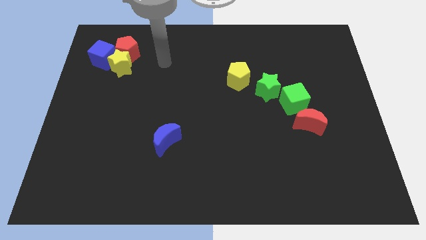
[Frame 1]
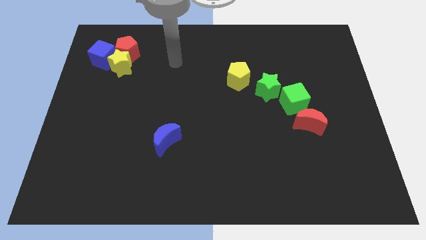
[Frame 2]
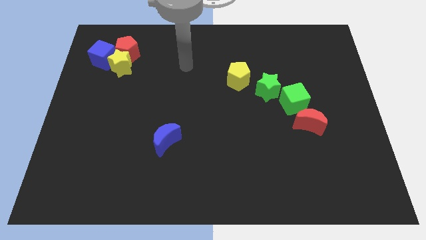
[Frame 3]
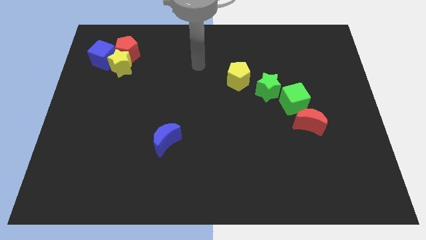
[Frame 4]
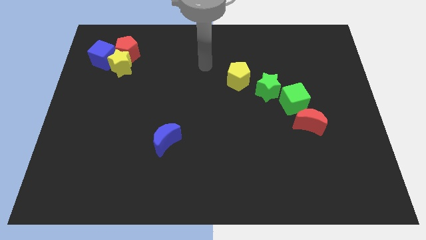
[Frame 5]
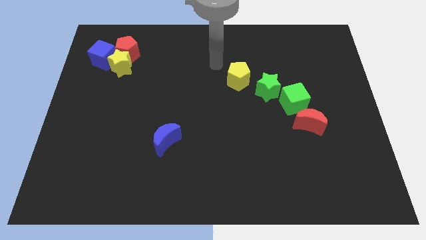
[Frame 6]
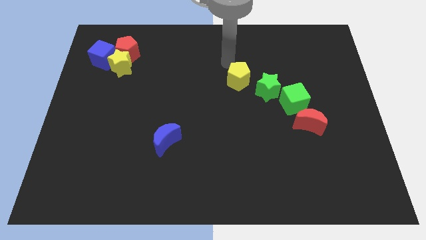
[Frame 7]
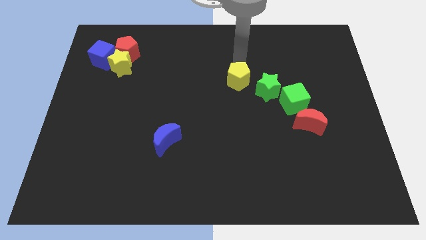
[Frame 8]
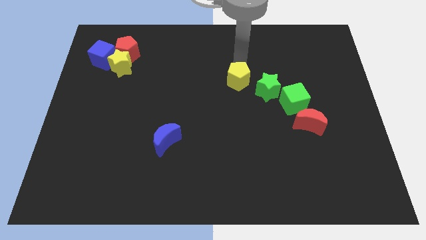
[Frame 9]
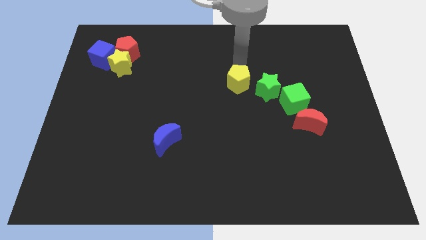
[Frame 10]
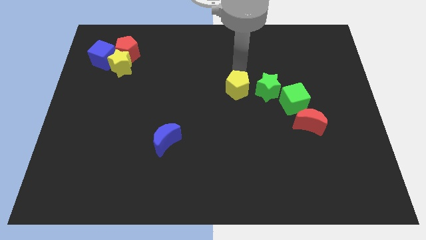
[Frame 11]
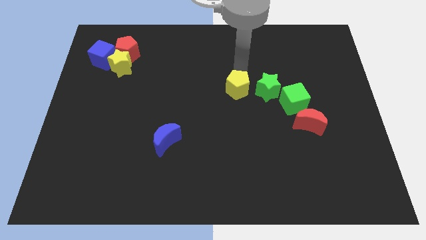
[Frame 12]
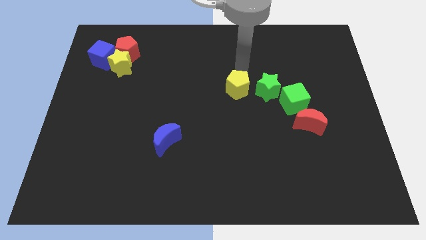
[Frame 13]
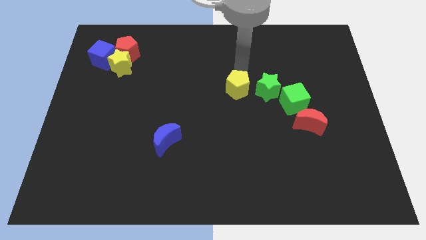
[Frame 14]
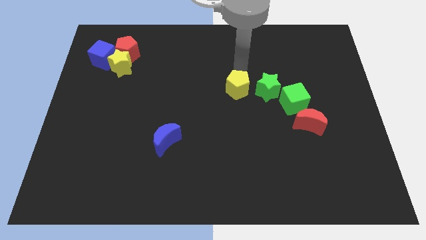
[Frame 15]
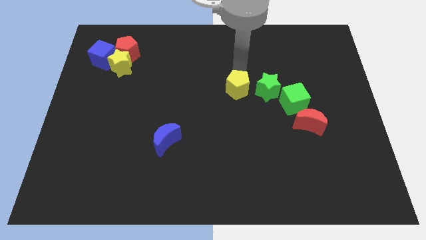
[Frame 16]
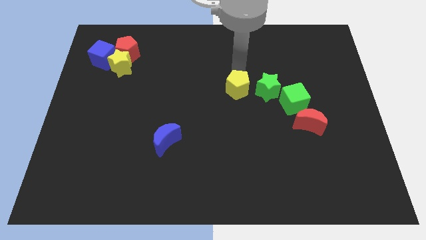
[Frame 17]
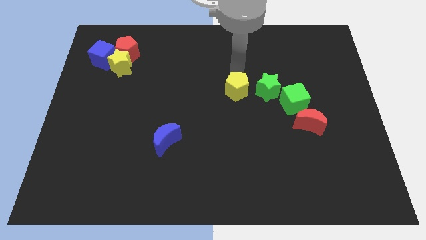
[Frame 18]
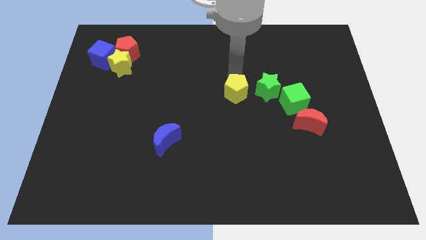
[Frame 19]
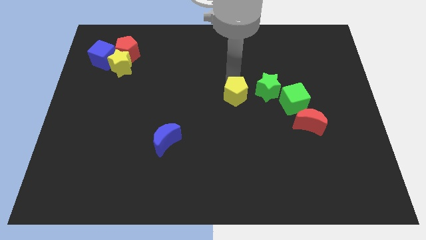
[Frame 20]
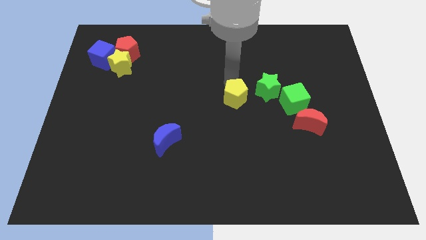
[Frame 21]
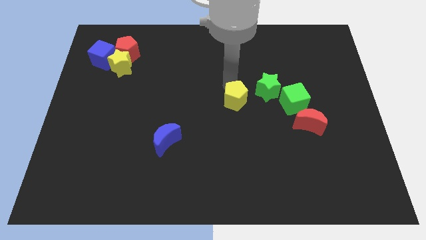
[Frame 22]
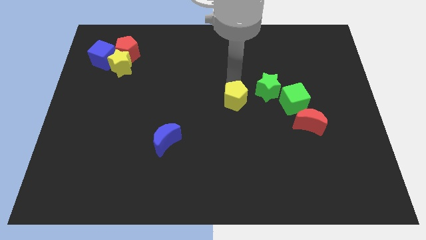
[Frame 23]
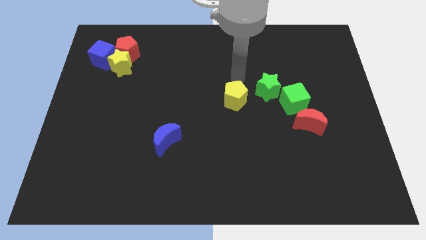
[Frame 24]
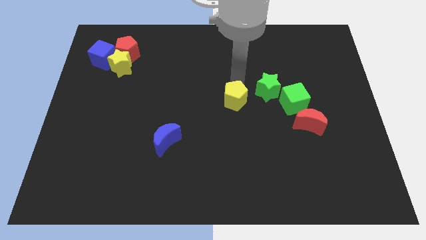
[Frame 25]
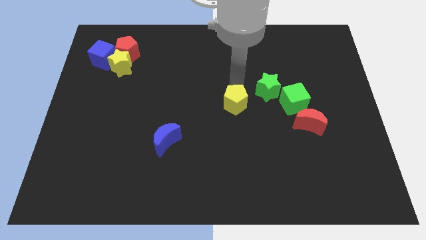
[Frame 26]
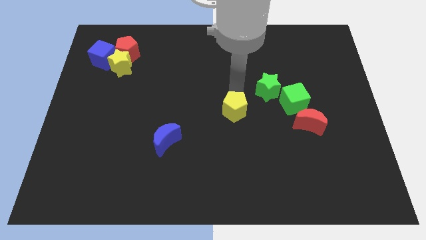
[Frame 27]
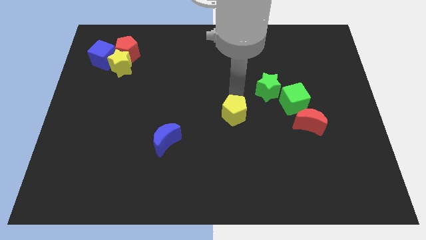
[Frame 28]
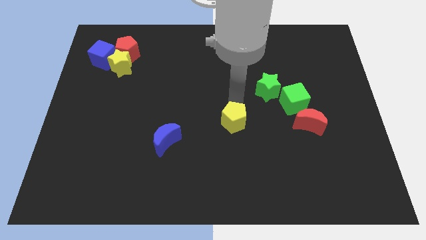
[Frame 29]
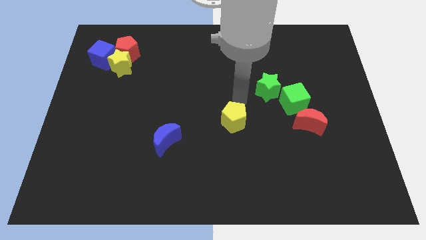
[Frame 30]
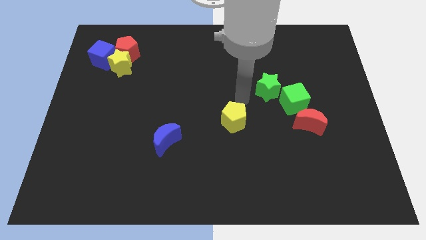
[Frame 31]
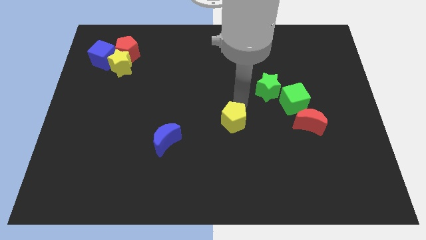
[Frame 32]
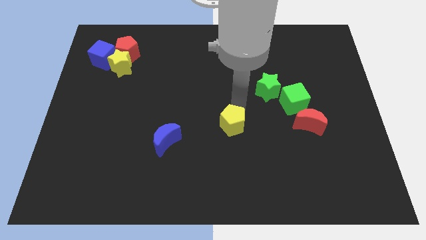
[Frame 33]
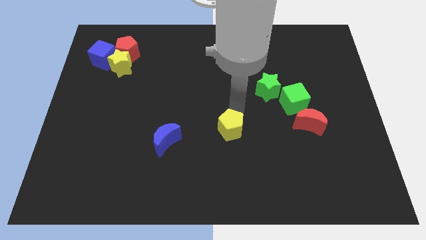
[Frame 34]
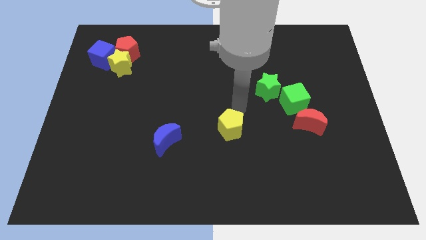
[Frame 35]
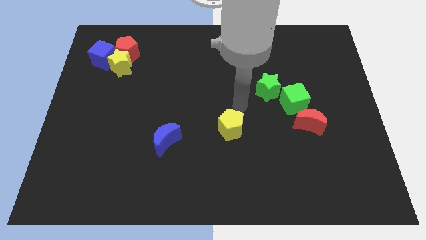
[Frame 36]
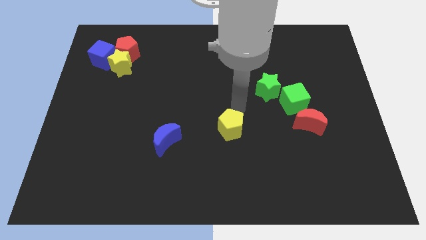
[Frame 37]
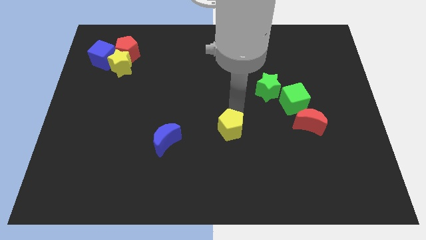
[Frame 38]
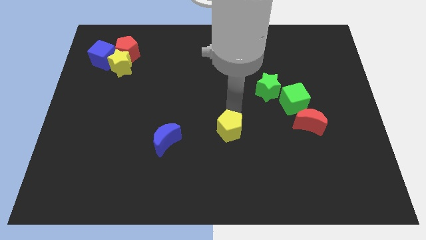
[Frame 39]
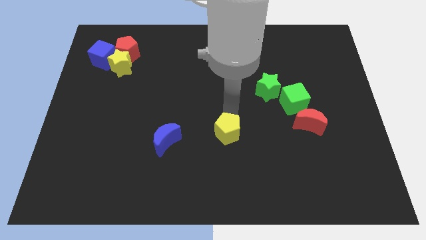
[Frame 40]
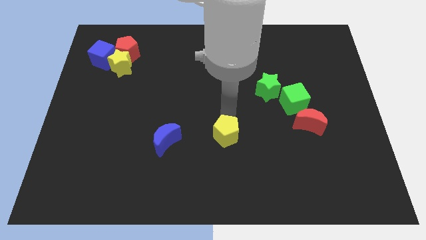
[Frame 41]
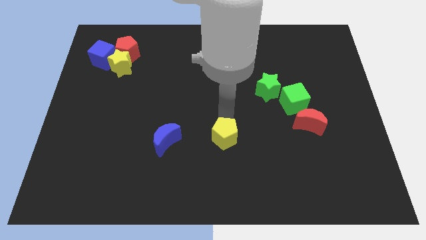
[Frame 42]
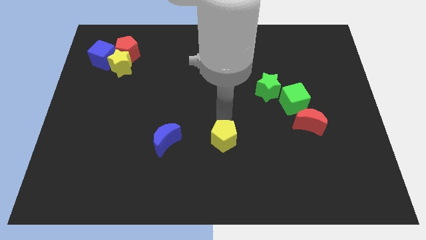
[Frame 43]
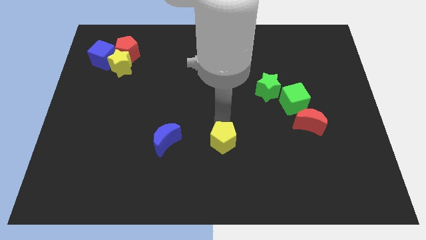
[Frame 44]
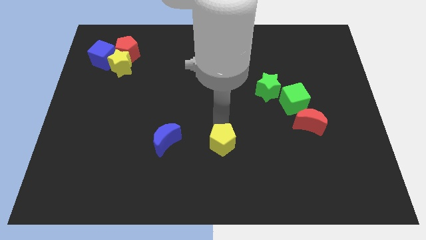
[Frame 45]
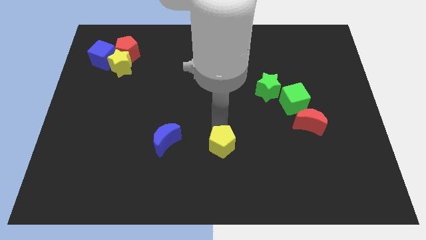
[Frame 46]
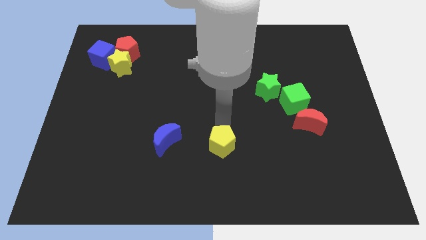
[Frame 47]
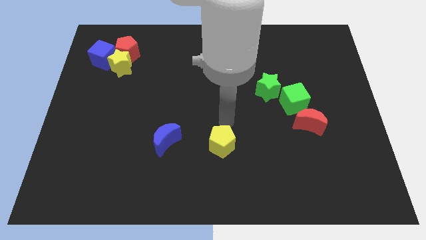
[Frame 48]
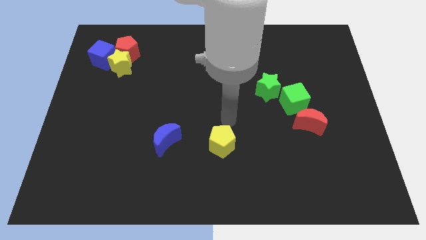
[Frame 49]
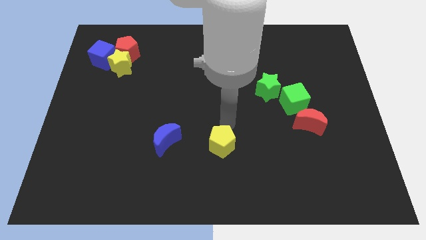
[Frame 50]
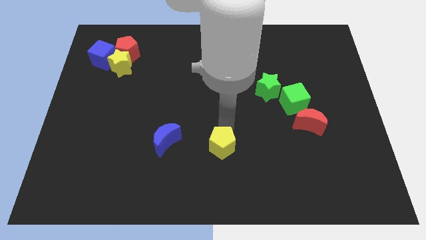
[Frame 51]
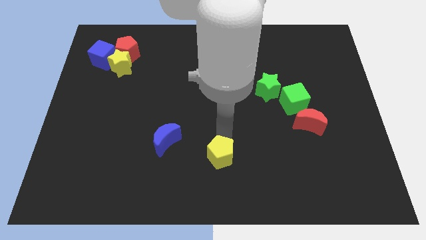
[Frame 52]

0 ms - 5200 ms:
push the yellow pentagon to the bottom side

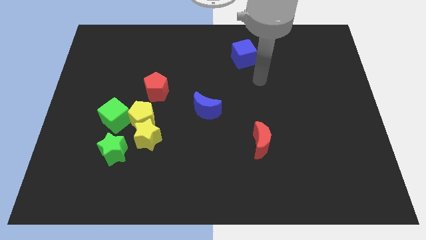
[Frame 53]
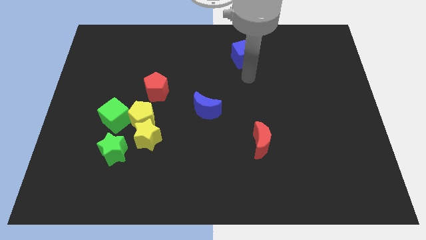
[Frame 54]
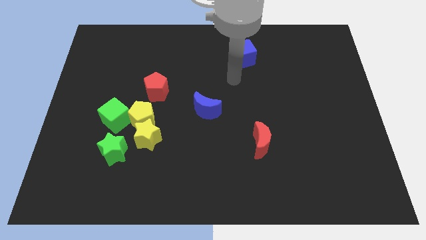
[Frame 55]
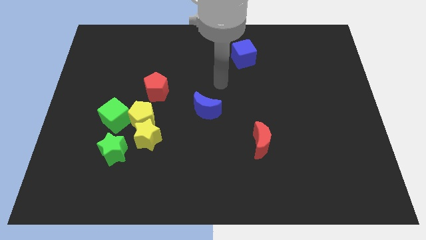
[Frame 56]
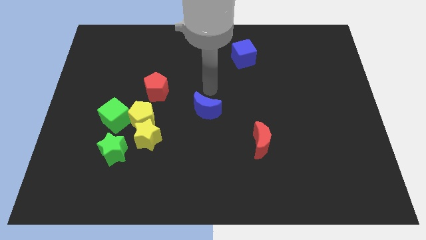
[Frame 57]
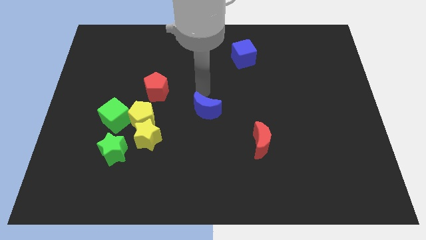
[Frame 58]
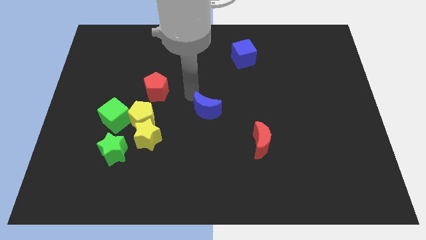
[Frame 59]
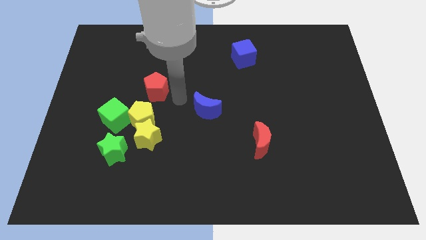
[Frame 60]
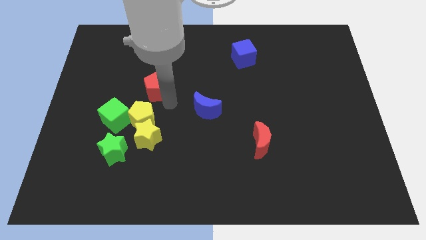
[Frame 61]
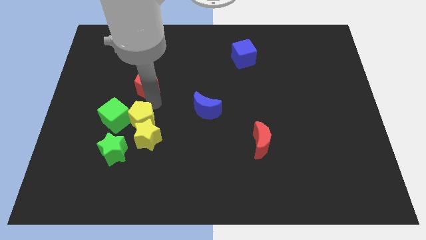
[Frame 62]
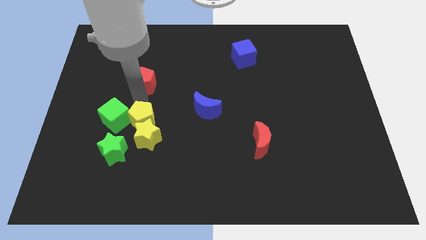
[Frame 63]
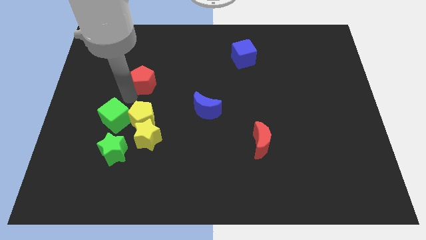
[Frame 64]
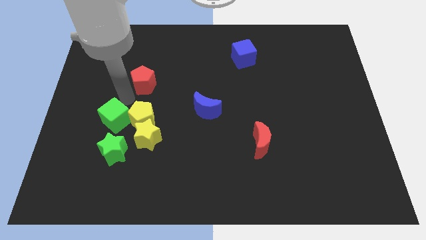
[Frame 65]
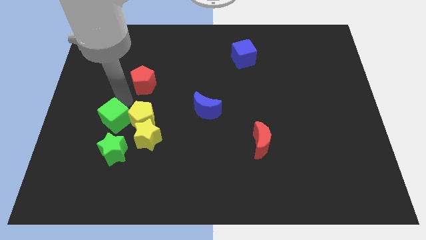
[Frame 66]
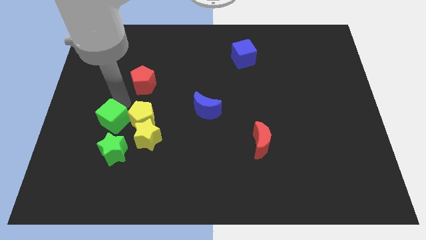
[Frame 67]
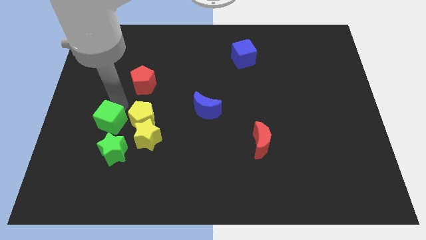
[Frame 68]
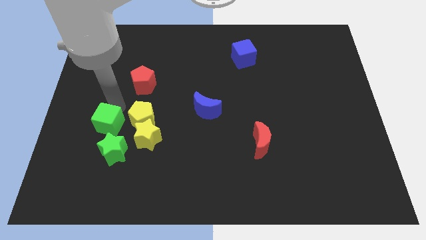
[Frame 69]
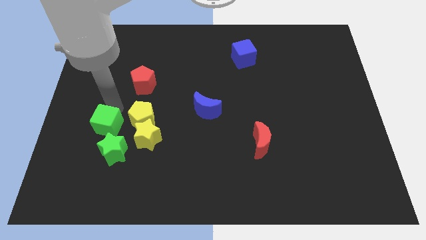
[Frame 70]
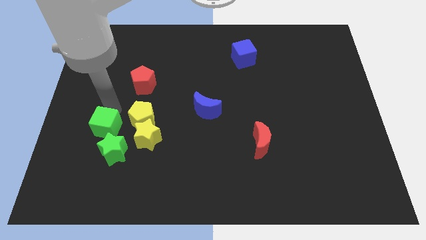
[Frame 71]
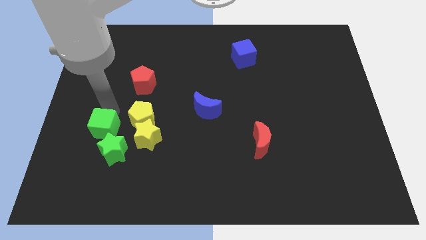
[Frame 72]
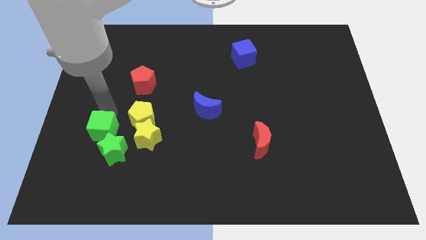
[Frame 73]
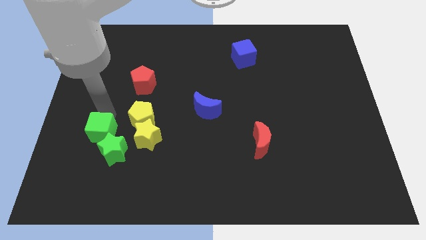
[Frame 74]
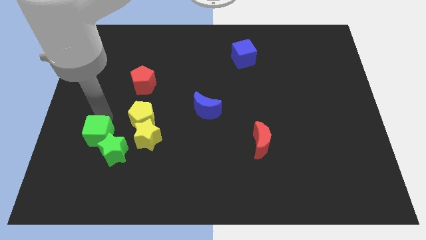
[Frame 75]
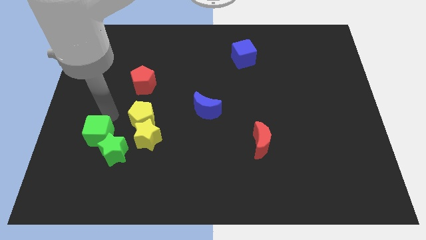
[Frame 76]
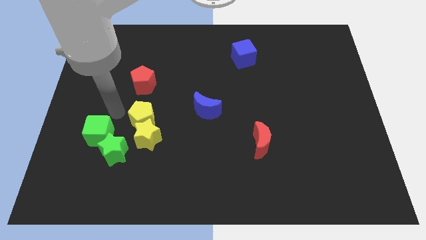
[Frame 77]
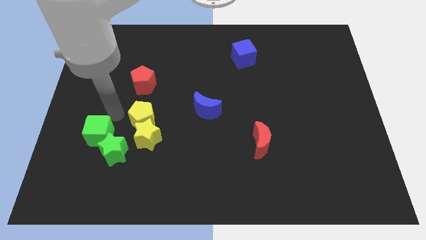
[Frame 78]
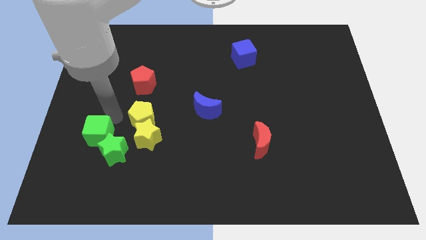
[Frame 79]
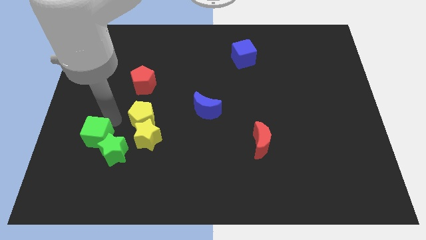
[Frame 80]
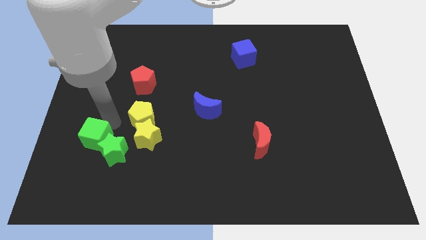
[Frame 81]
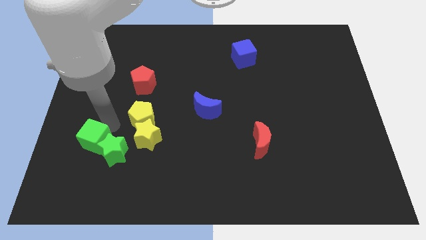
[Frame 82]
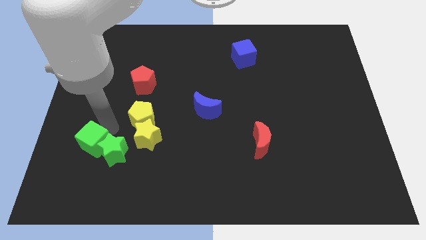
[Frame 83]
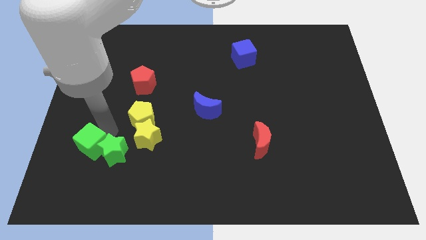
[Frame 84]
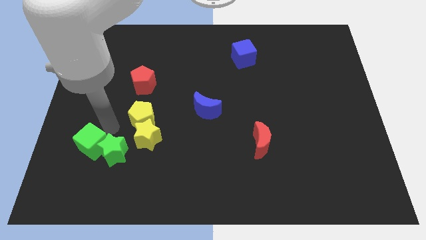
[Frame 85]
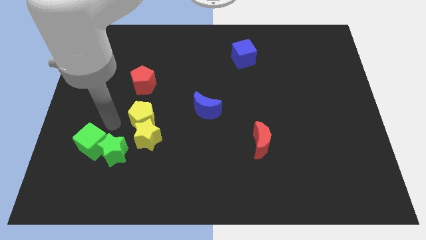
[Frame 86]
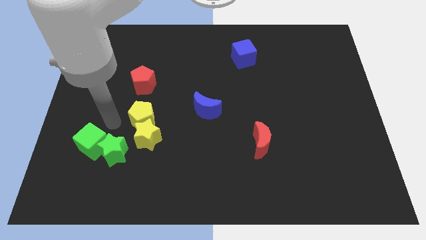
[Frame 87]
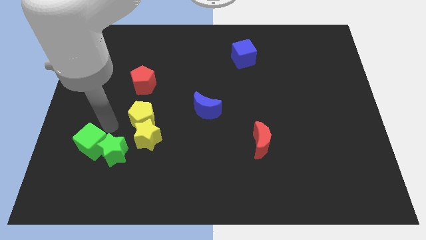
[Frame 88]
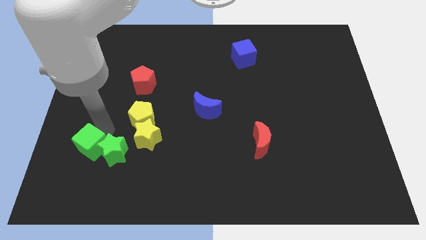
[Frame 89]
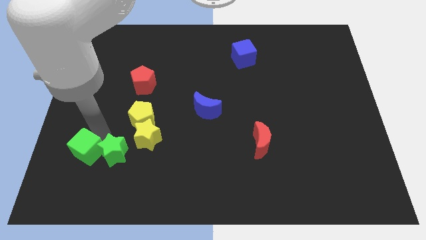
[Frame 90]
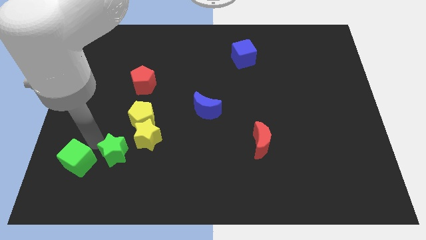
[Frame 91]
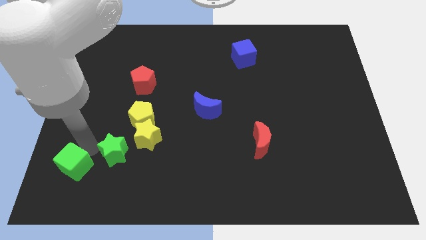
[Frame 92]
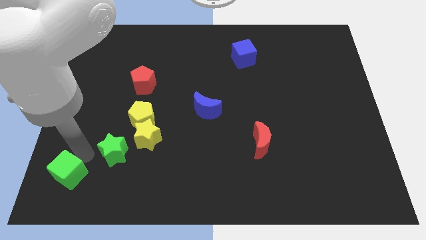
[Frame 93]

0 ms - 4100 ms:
slide the green cube to the bottom left of the board
